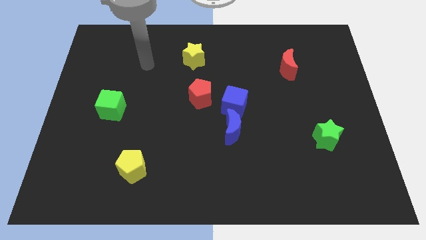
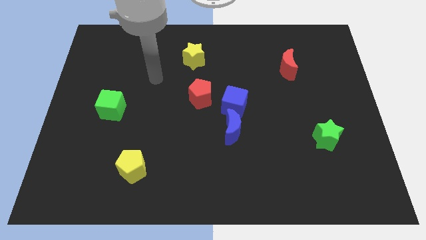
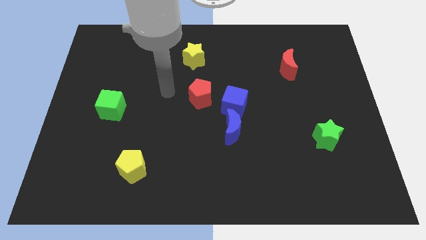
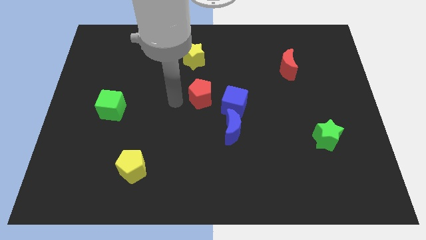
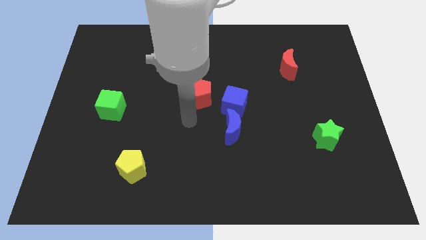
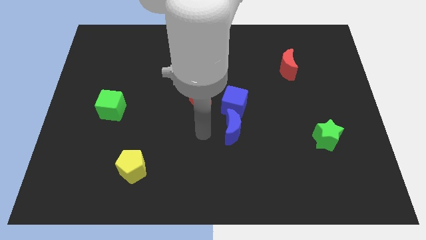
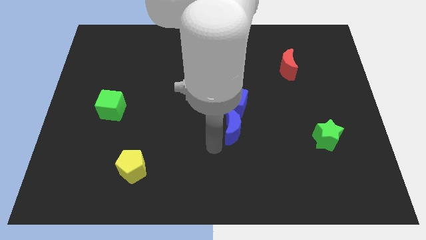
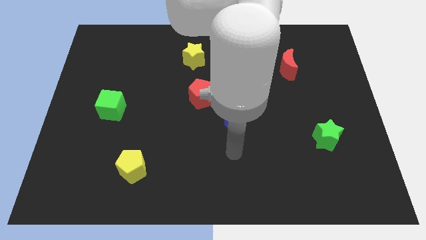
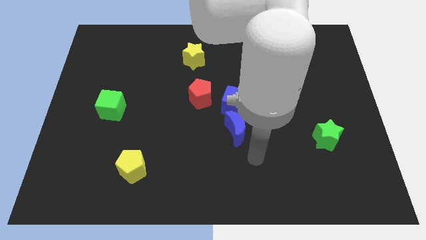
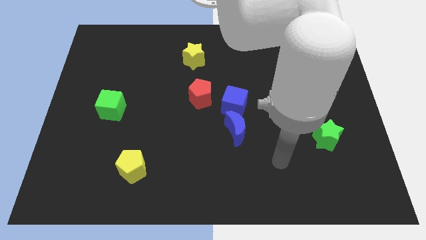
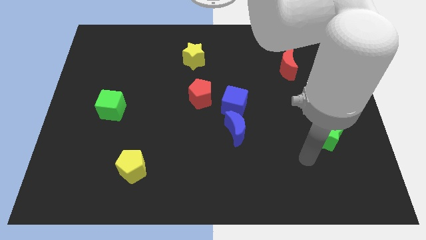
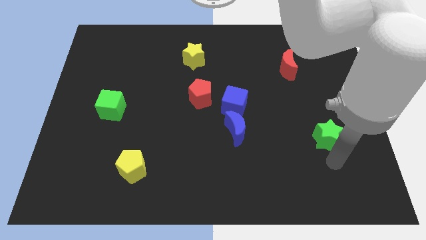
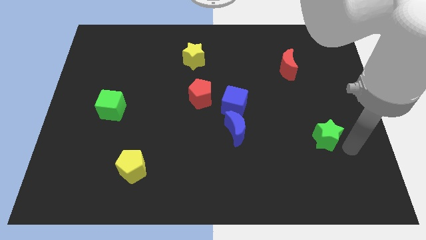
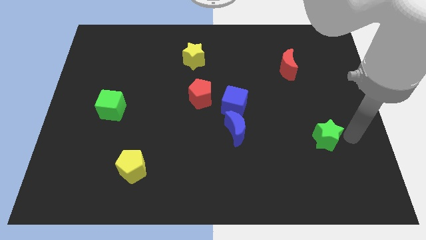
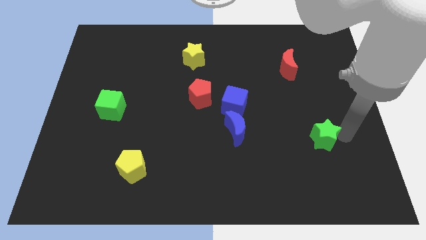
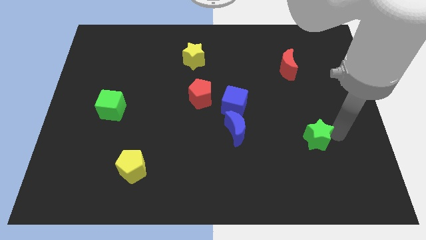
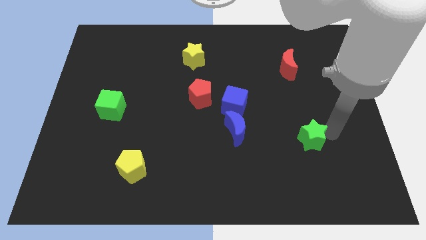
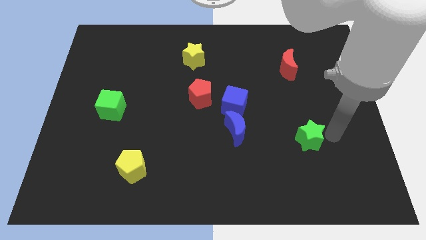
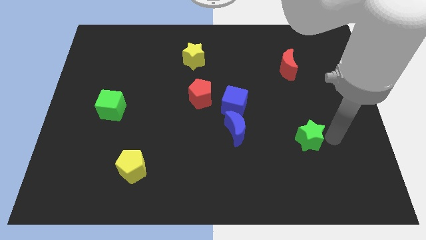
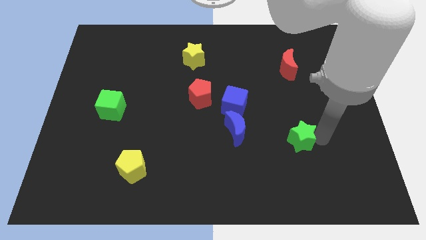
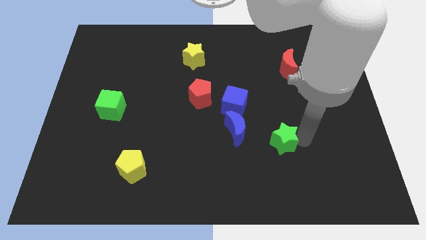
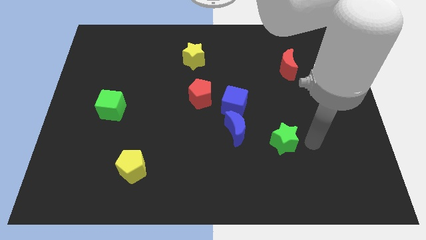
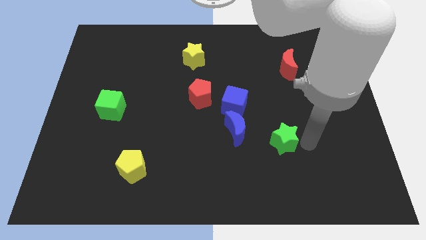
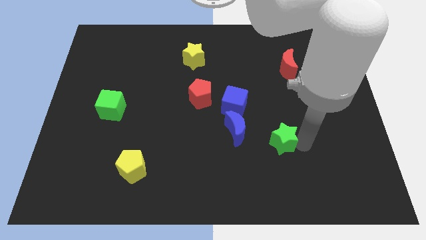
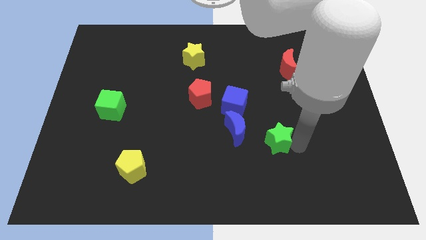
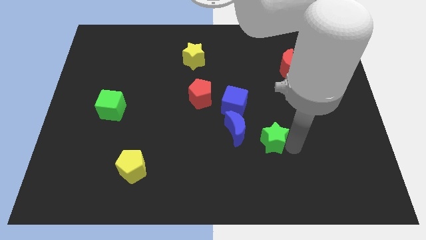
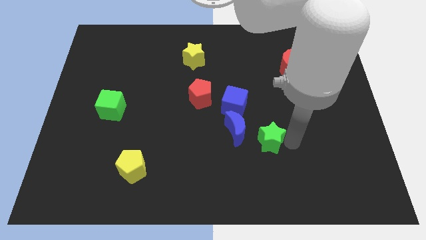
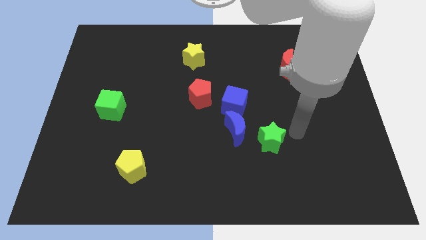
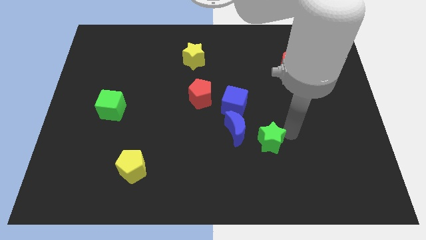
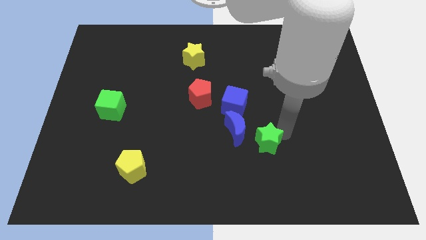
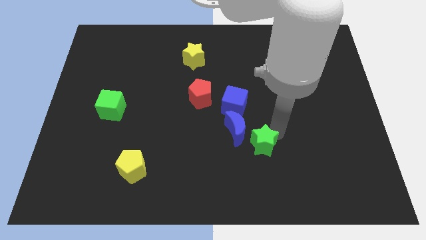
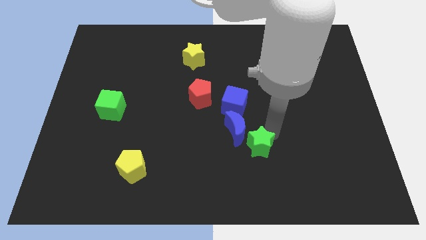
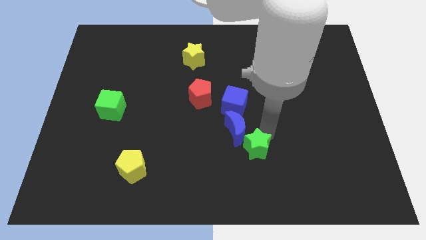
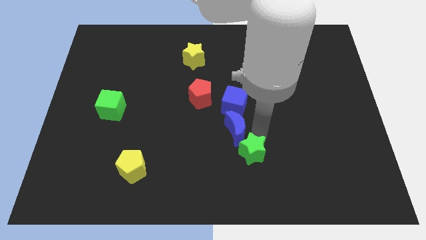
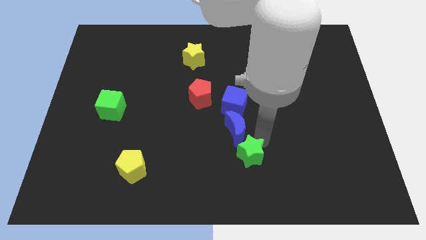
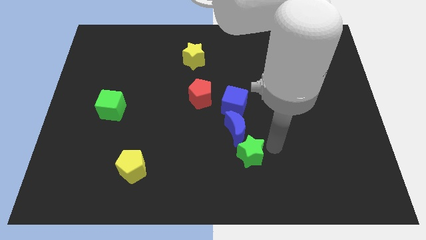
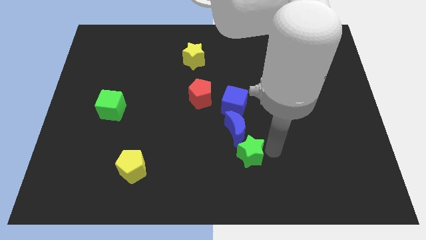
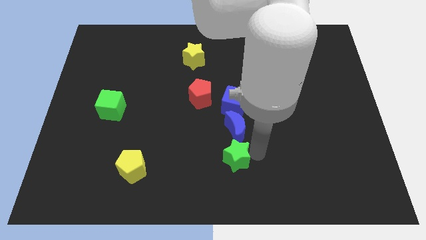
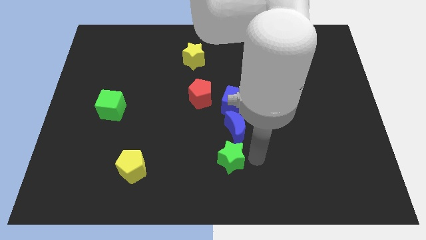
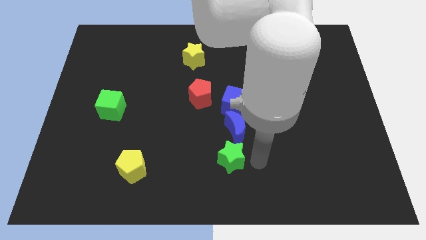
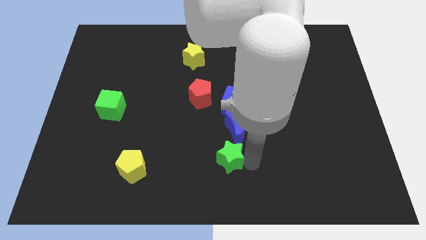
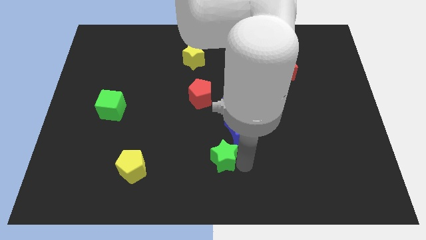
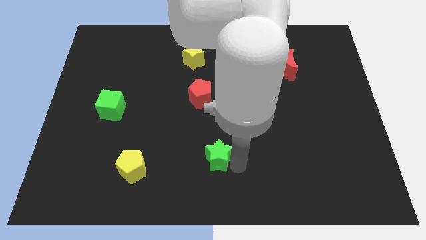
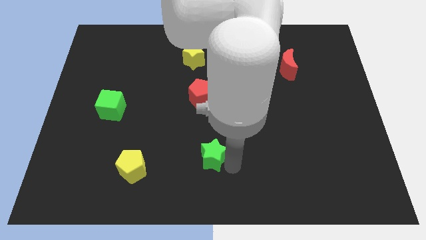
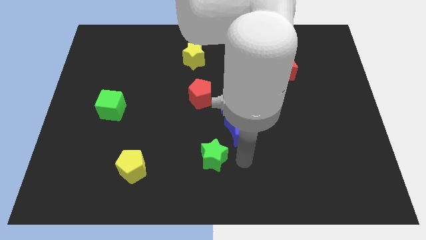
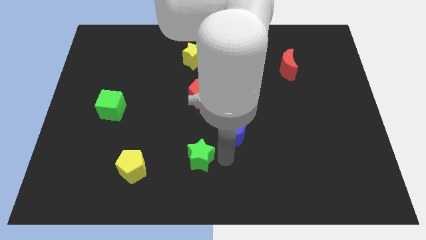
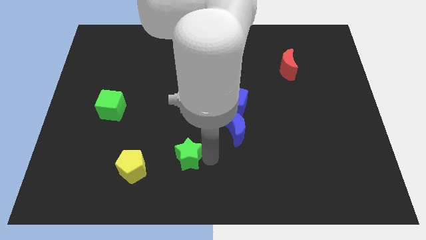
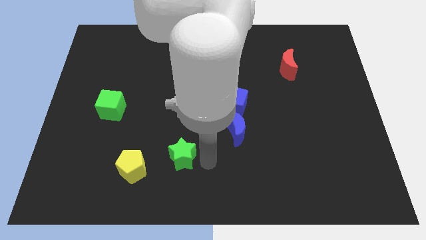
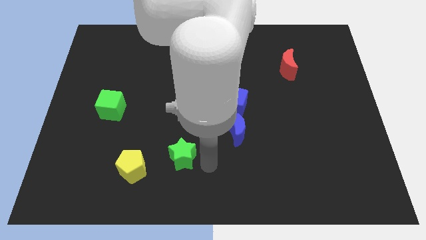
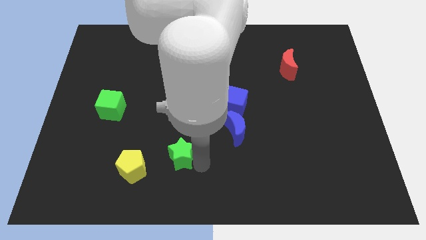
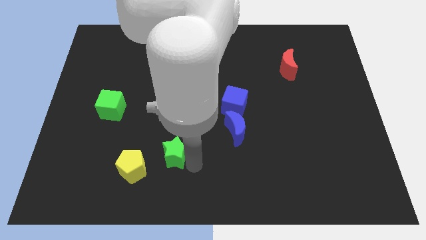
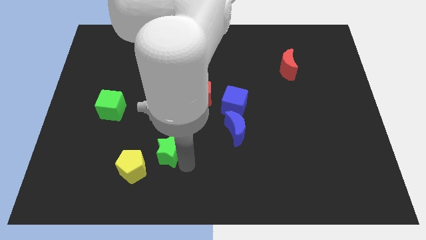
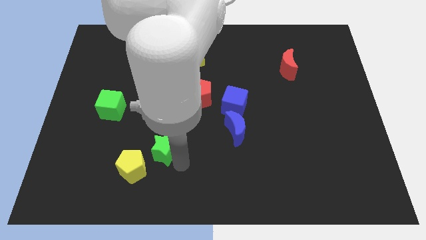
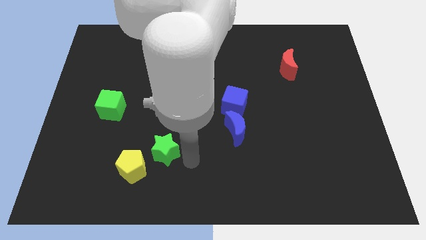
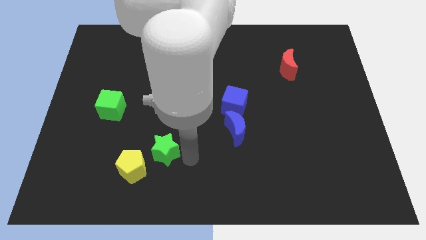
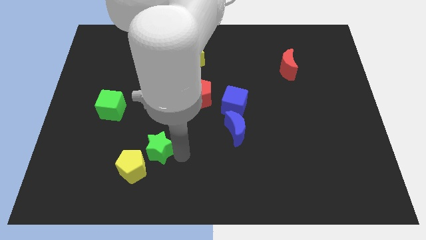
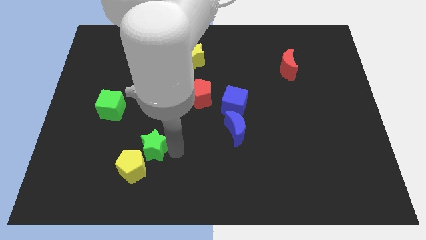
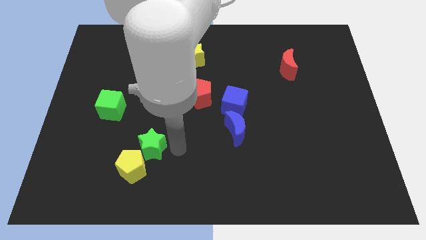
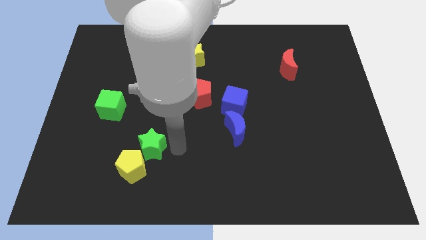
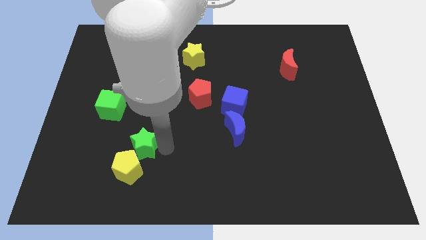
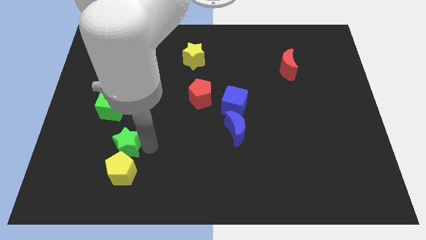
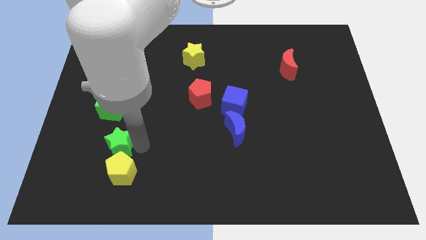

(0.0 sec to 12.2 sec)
slide the green star below the green cube
